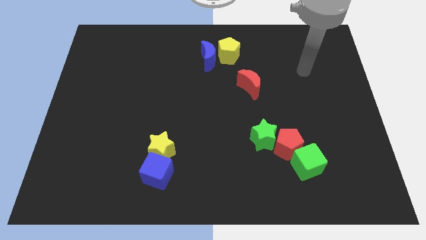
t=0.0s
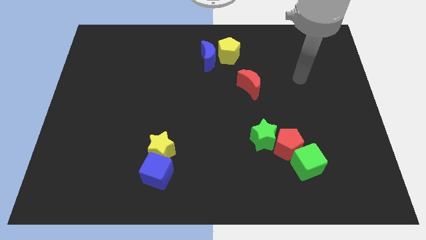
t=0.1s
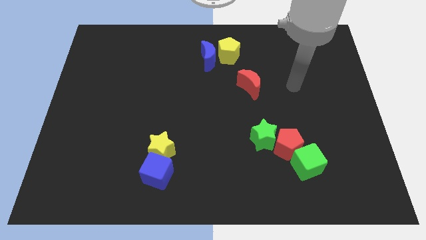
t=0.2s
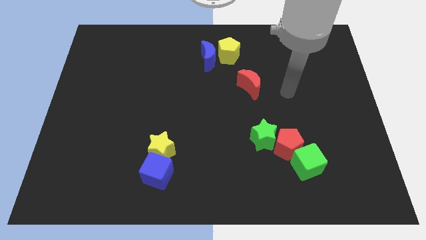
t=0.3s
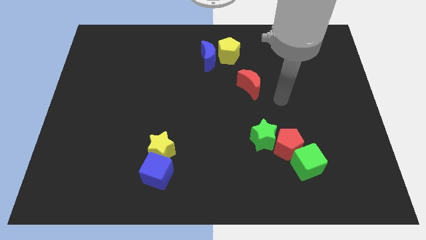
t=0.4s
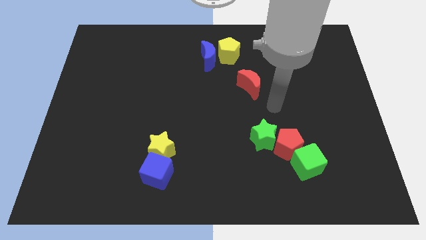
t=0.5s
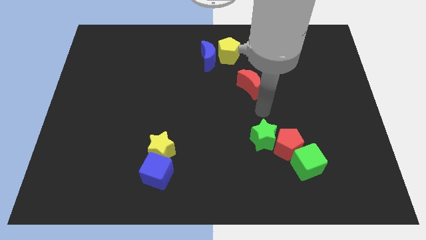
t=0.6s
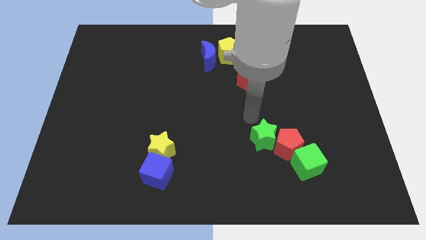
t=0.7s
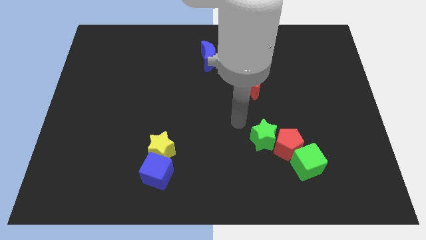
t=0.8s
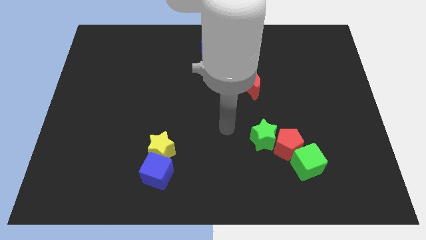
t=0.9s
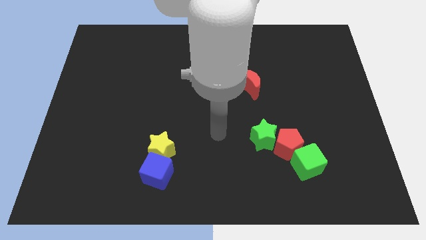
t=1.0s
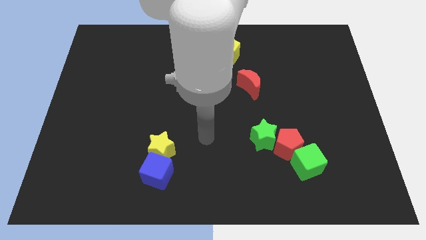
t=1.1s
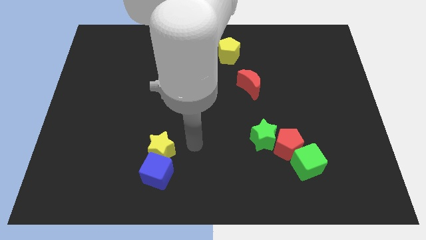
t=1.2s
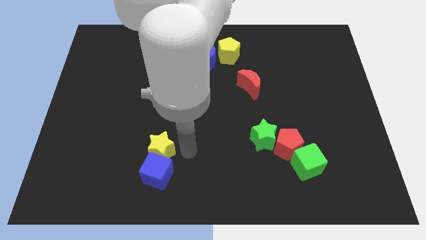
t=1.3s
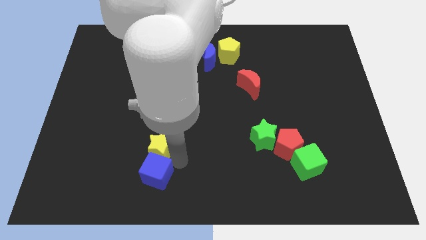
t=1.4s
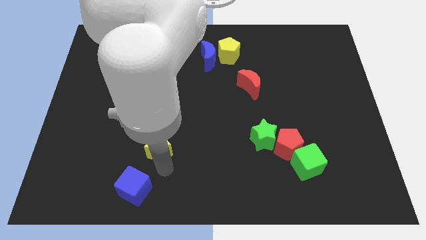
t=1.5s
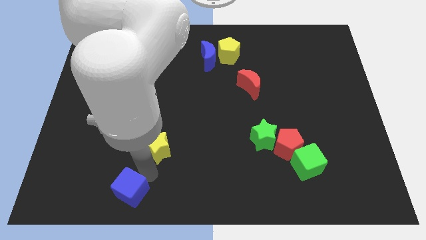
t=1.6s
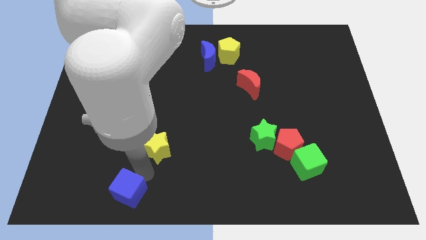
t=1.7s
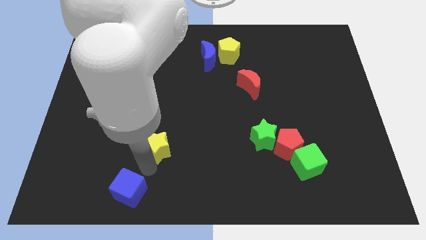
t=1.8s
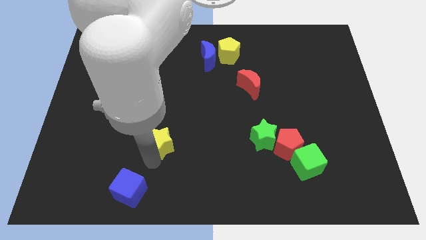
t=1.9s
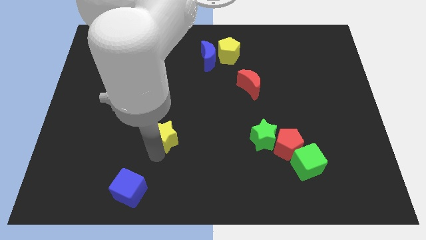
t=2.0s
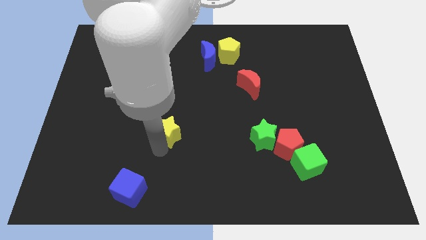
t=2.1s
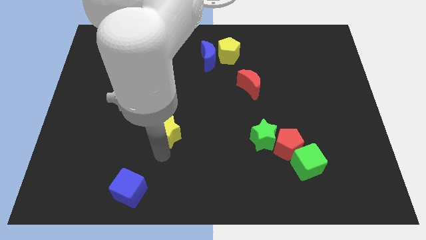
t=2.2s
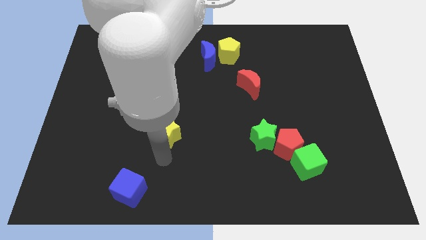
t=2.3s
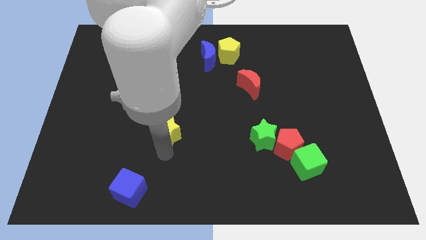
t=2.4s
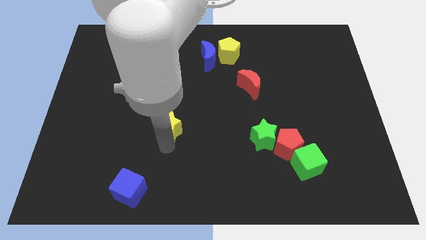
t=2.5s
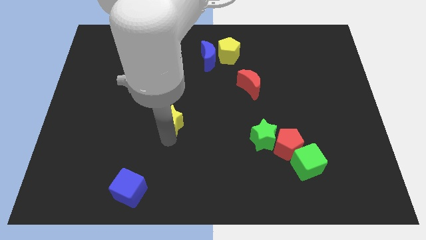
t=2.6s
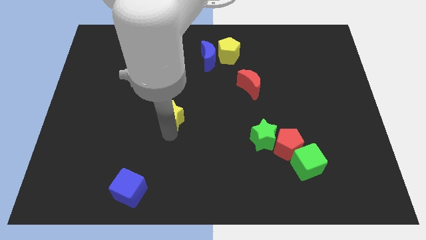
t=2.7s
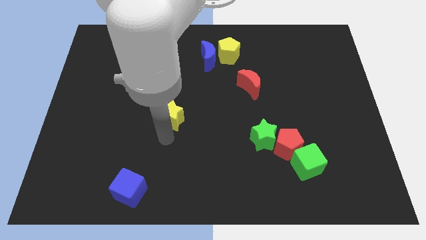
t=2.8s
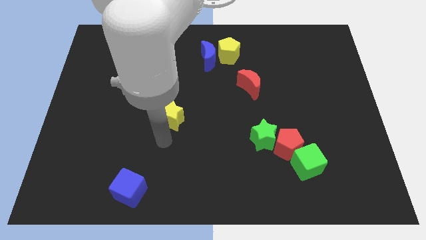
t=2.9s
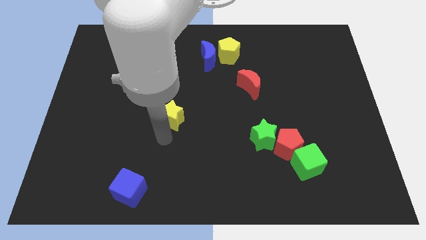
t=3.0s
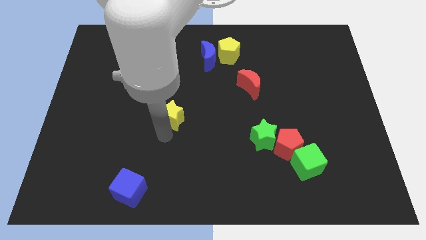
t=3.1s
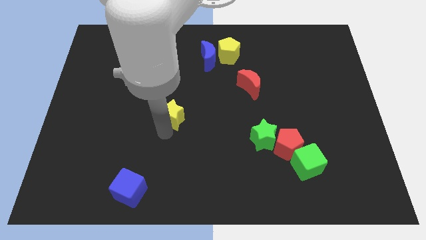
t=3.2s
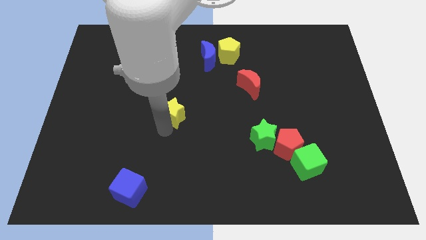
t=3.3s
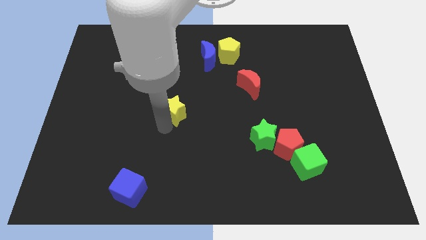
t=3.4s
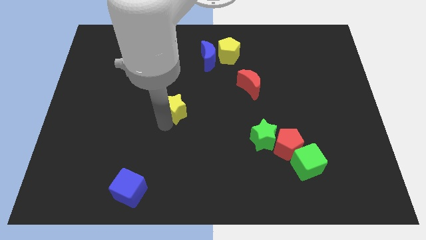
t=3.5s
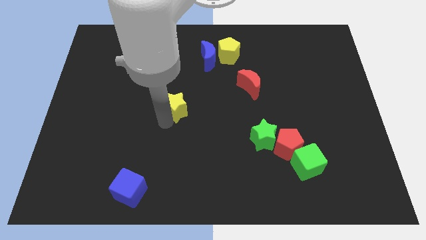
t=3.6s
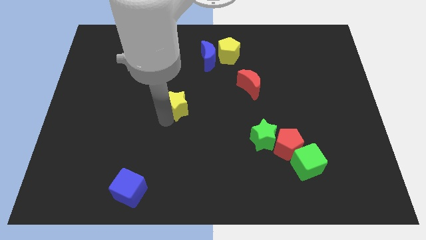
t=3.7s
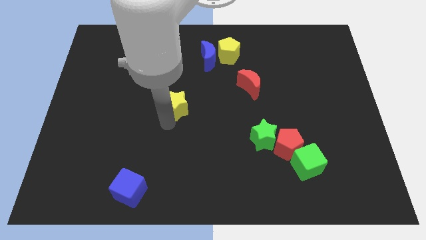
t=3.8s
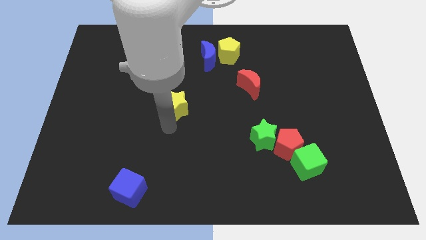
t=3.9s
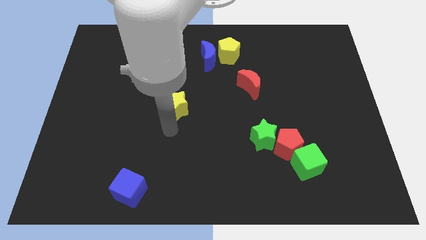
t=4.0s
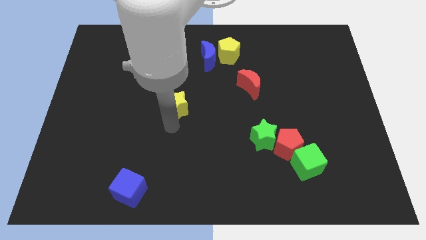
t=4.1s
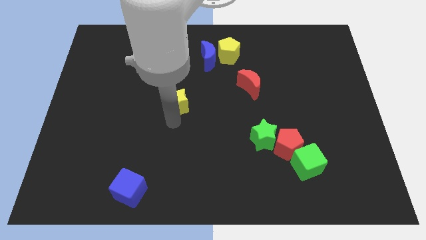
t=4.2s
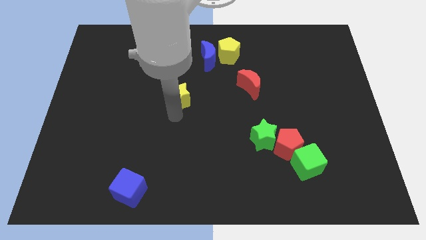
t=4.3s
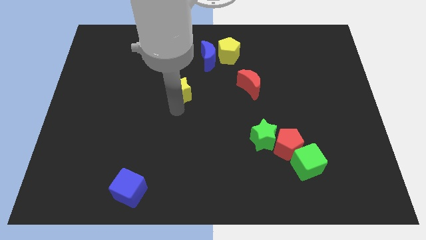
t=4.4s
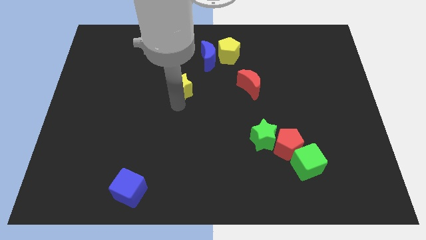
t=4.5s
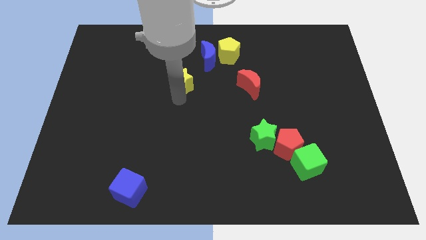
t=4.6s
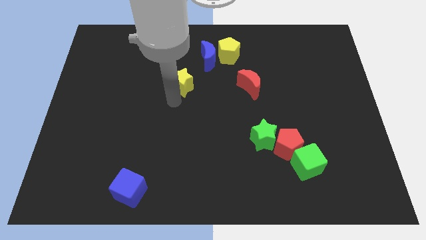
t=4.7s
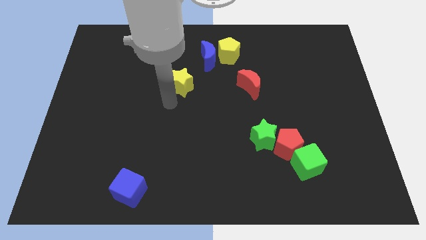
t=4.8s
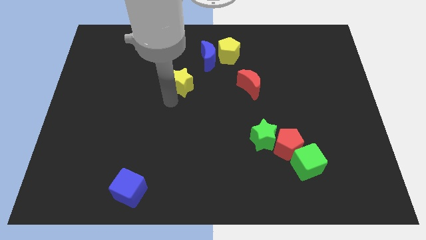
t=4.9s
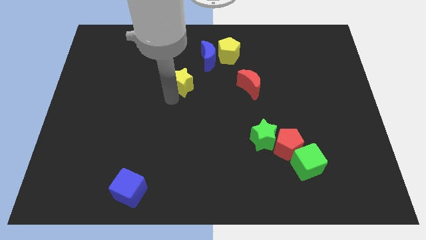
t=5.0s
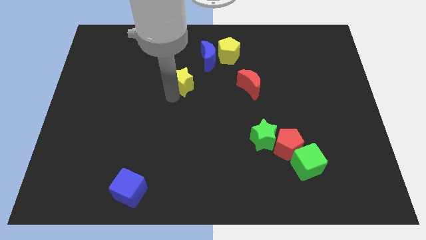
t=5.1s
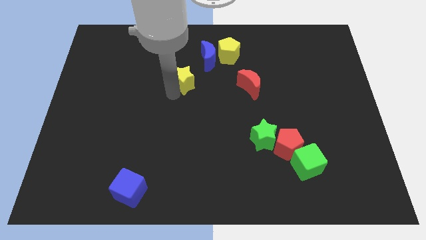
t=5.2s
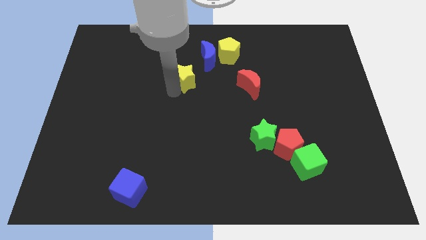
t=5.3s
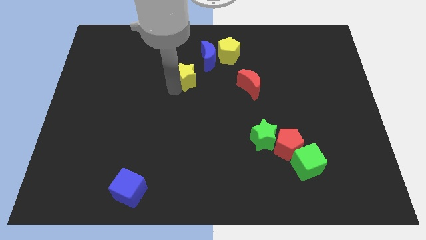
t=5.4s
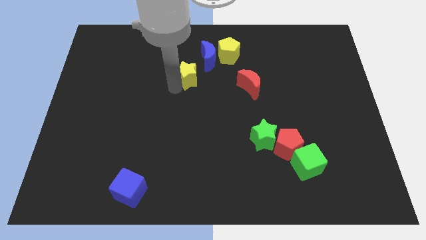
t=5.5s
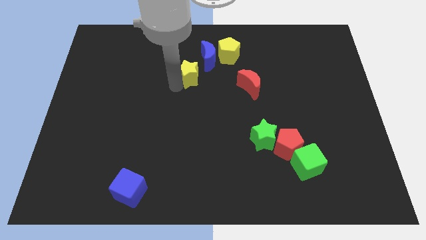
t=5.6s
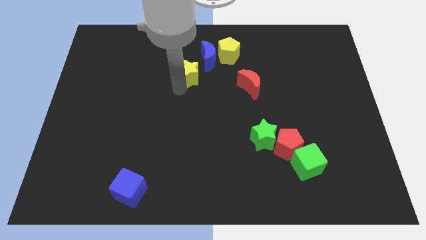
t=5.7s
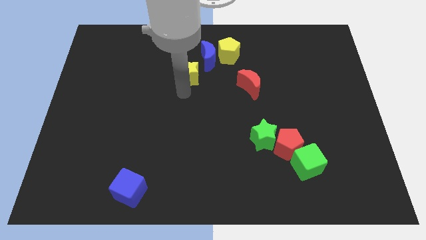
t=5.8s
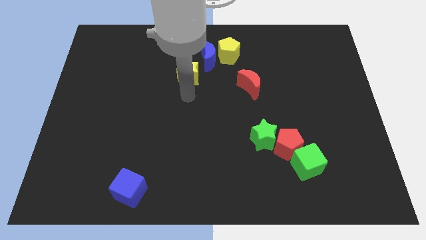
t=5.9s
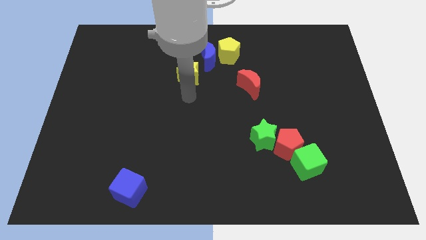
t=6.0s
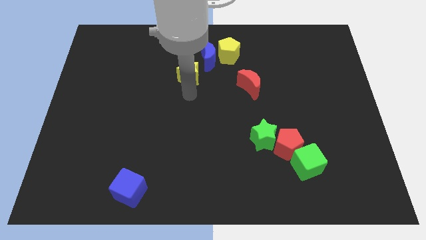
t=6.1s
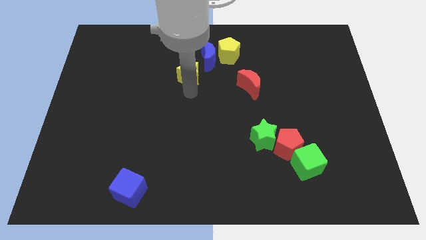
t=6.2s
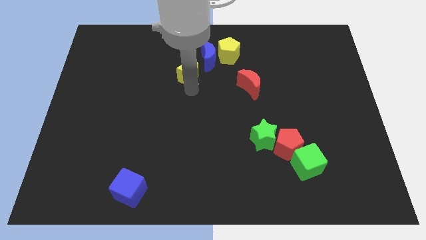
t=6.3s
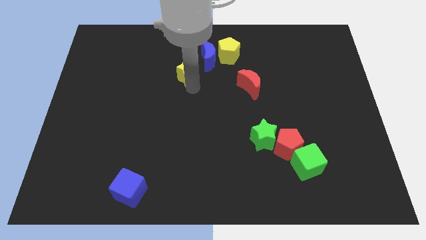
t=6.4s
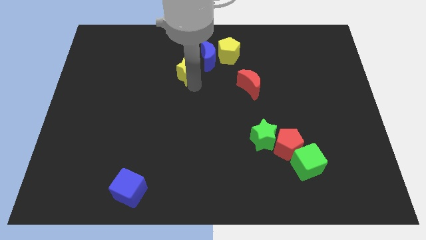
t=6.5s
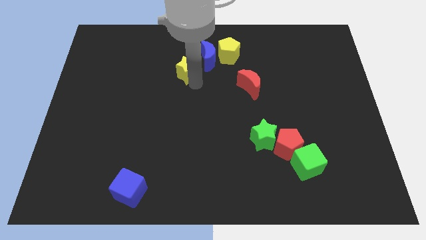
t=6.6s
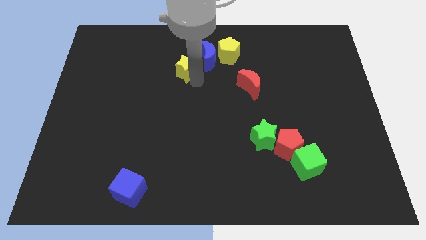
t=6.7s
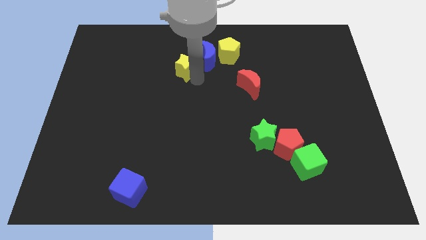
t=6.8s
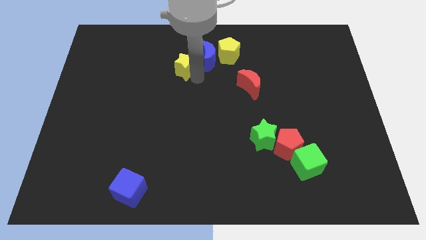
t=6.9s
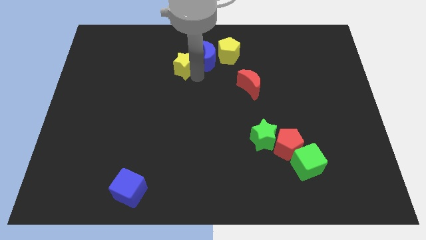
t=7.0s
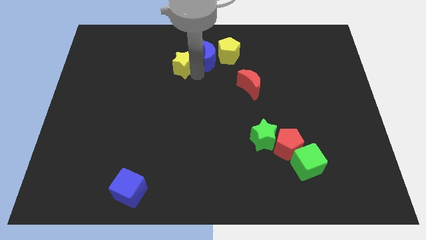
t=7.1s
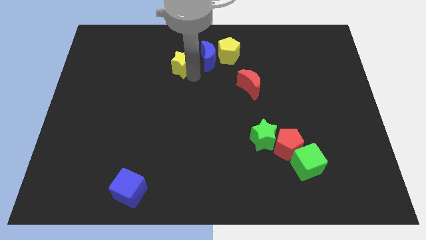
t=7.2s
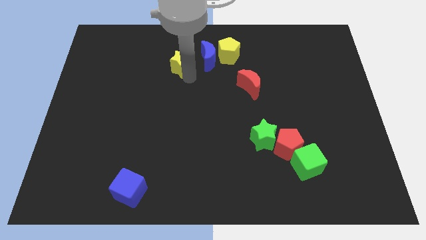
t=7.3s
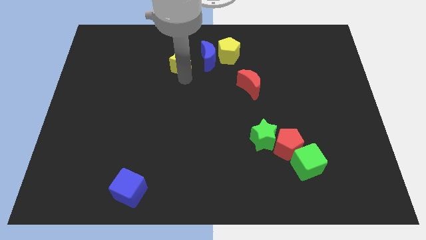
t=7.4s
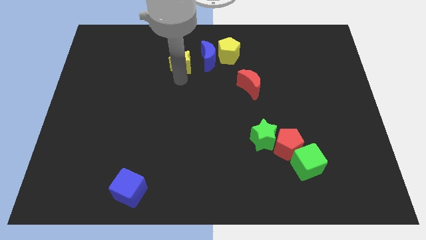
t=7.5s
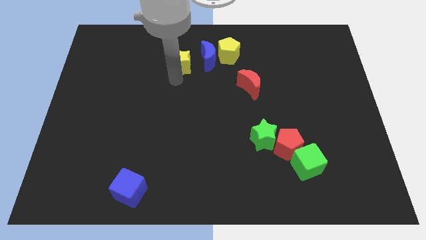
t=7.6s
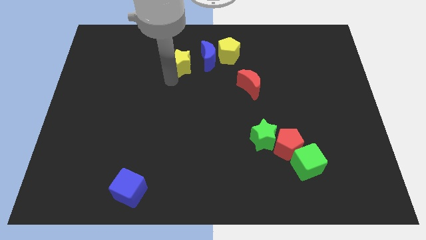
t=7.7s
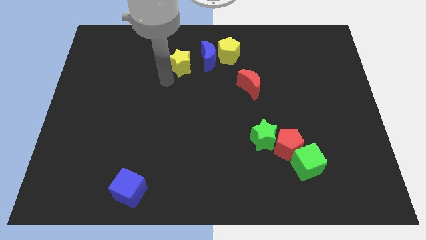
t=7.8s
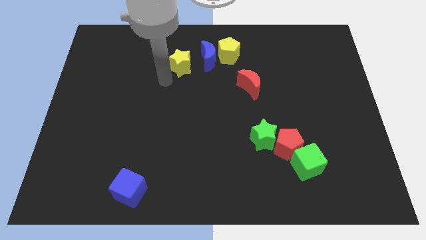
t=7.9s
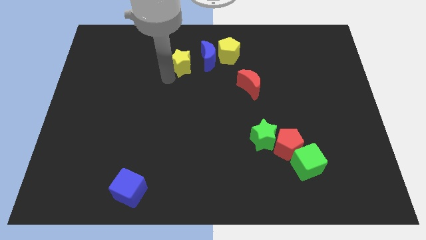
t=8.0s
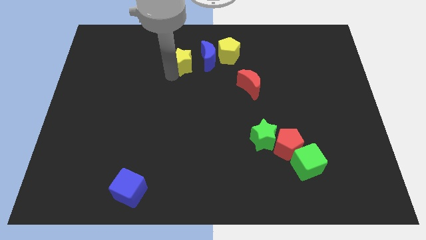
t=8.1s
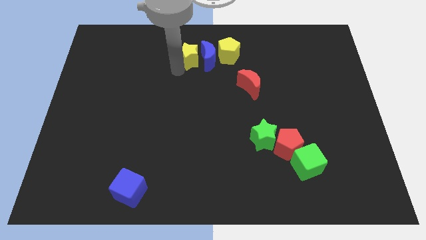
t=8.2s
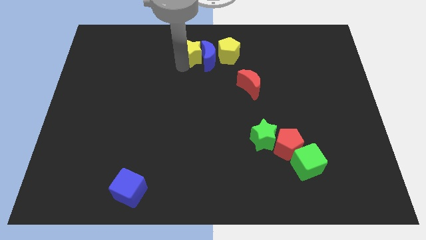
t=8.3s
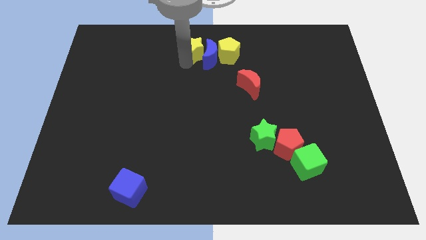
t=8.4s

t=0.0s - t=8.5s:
put the yellow star to the top
